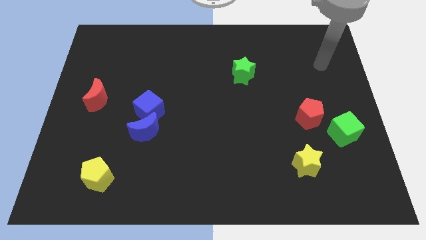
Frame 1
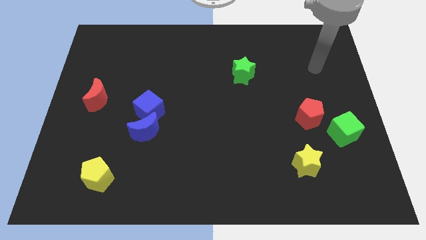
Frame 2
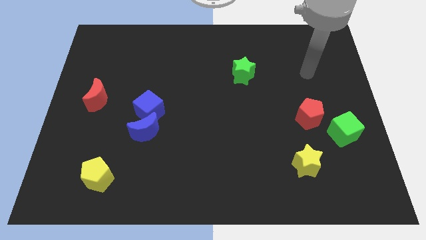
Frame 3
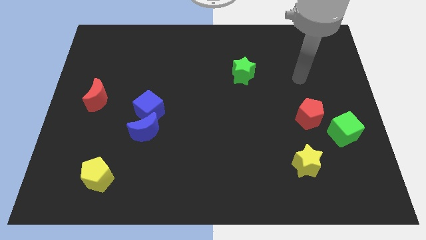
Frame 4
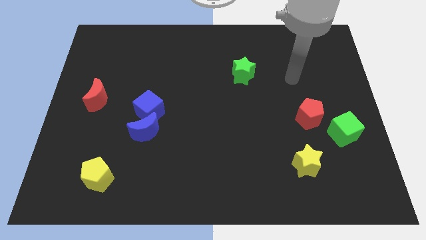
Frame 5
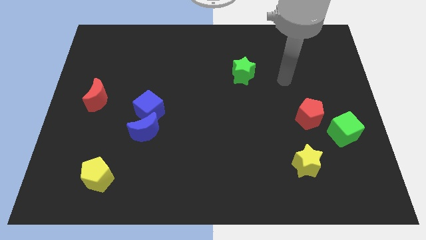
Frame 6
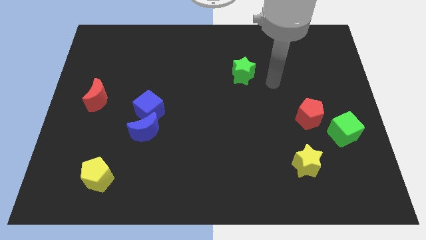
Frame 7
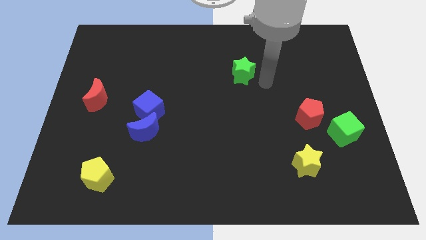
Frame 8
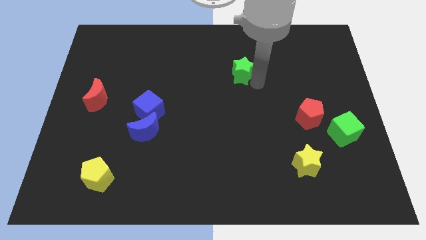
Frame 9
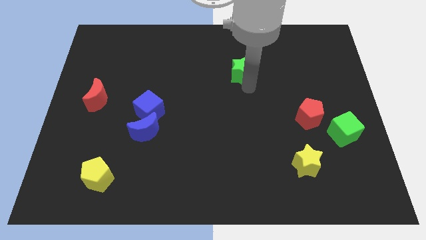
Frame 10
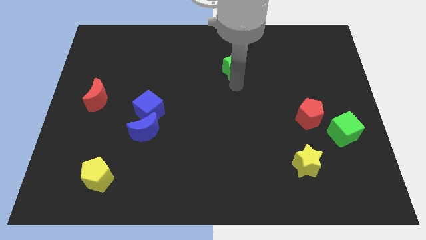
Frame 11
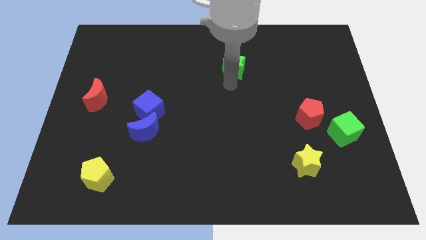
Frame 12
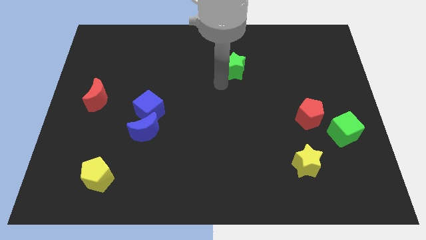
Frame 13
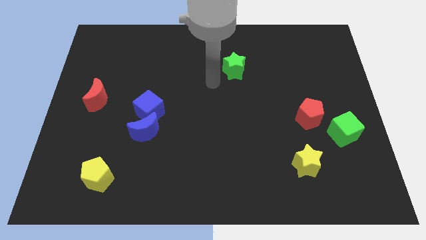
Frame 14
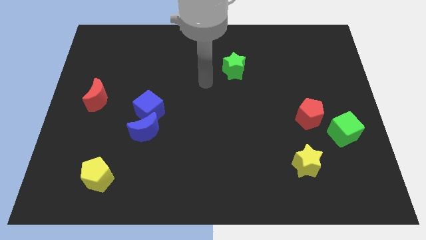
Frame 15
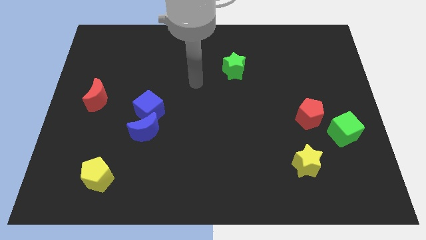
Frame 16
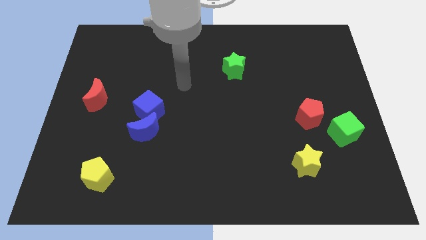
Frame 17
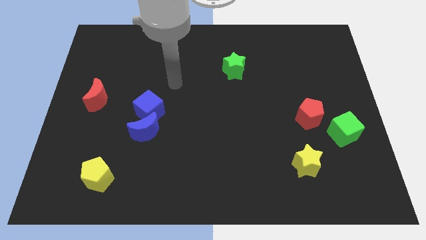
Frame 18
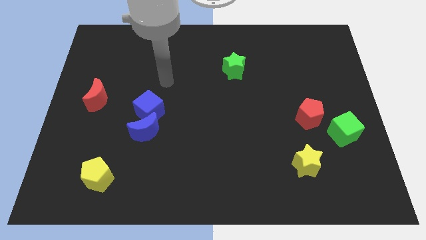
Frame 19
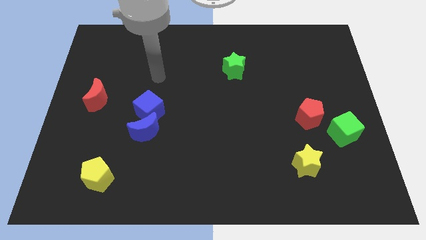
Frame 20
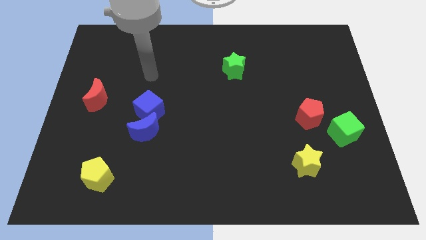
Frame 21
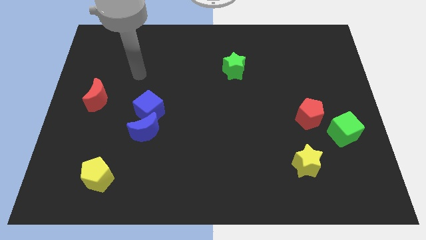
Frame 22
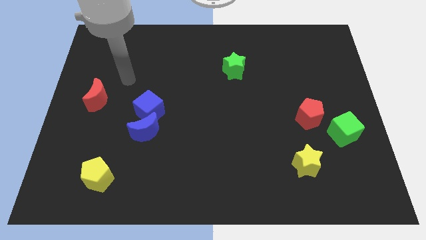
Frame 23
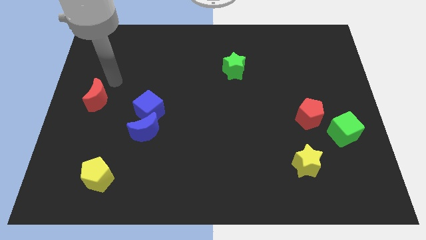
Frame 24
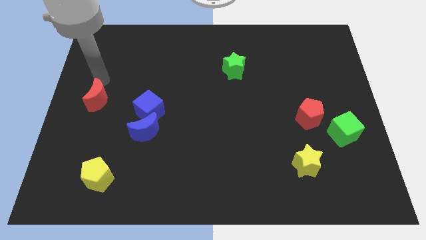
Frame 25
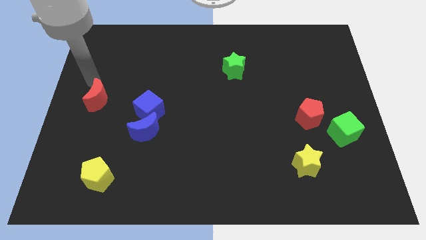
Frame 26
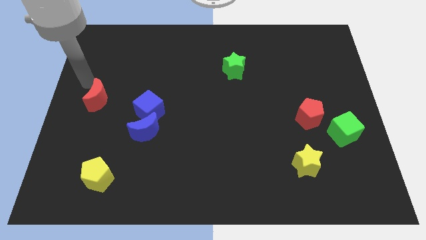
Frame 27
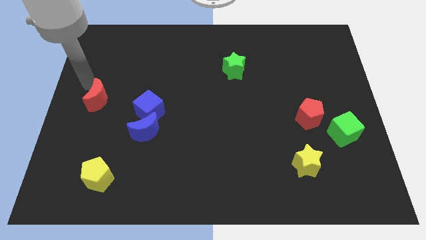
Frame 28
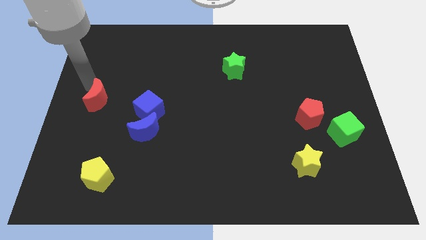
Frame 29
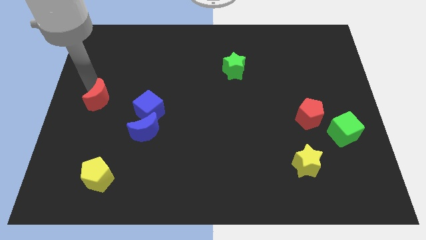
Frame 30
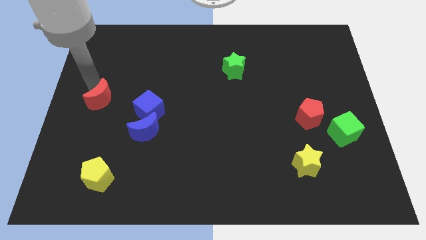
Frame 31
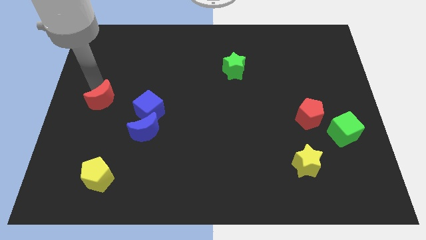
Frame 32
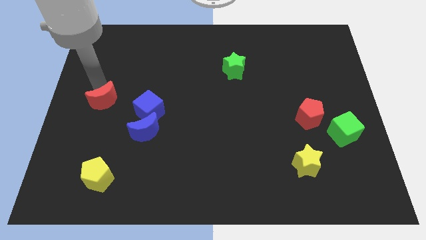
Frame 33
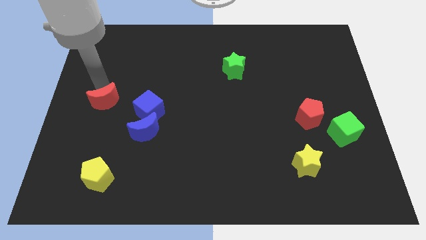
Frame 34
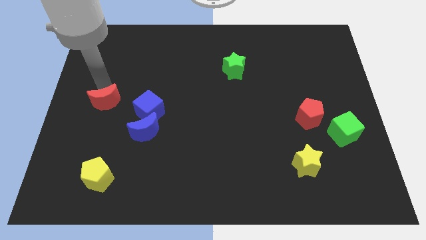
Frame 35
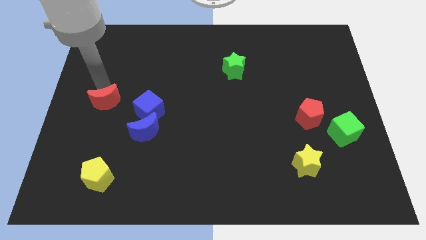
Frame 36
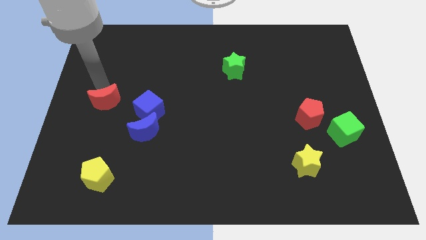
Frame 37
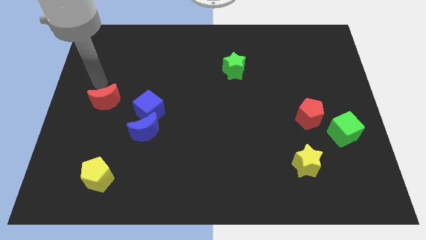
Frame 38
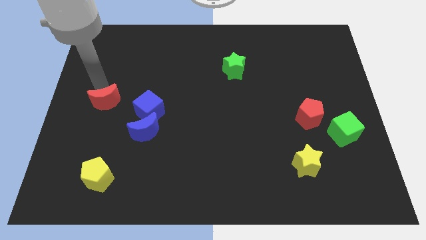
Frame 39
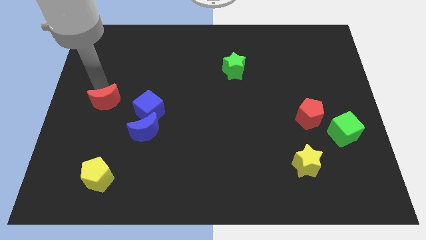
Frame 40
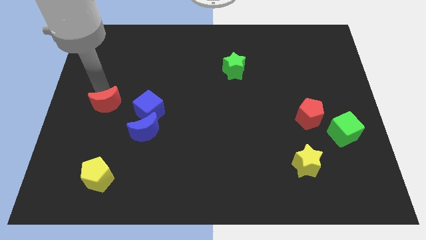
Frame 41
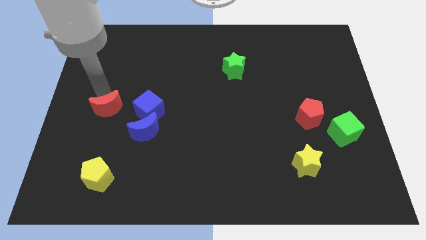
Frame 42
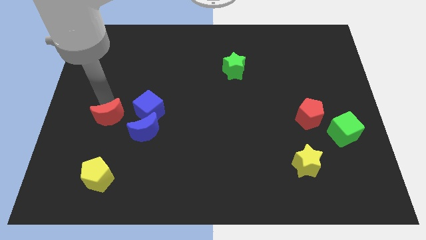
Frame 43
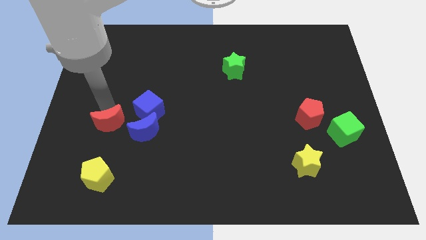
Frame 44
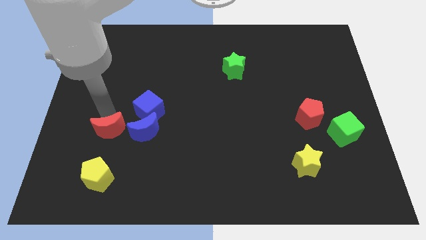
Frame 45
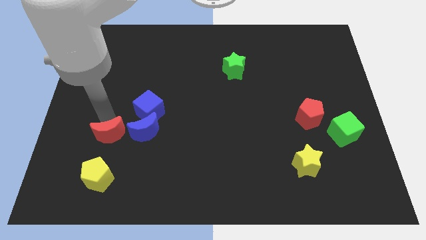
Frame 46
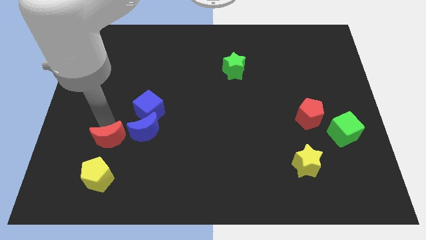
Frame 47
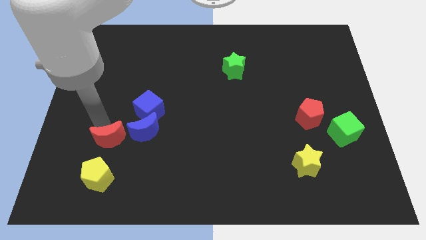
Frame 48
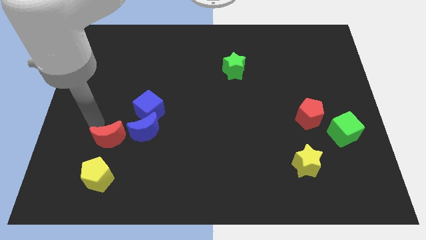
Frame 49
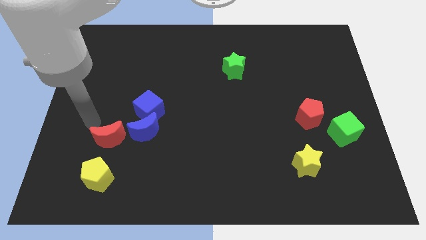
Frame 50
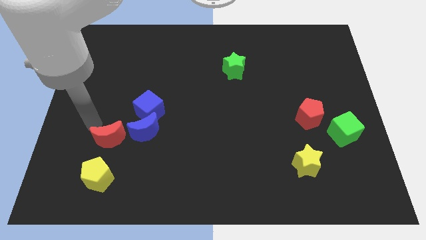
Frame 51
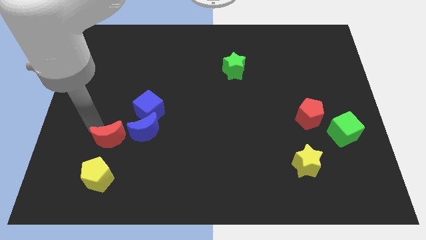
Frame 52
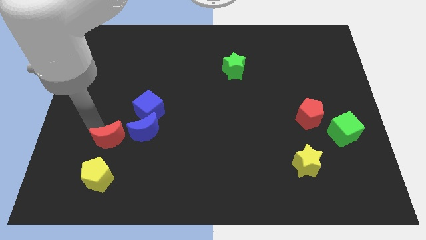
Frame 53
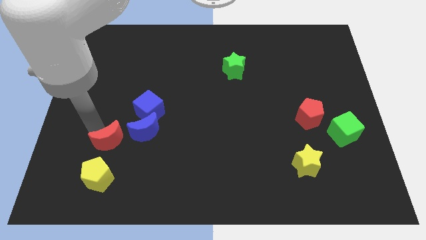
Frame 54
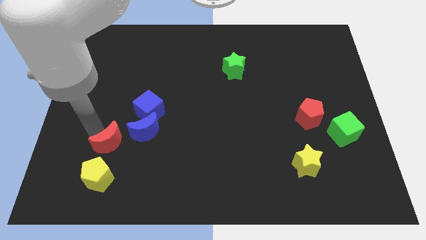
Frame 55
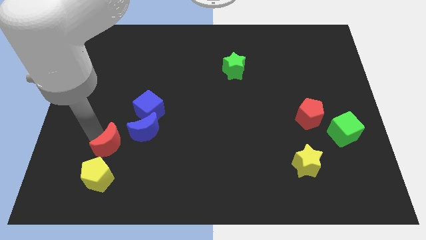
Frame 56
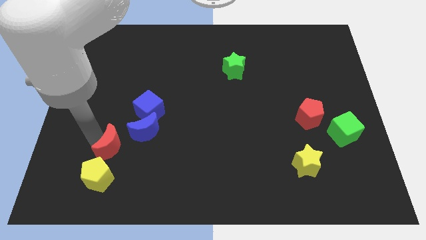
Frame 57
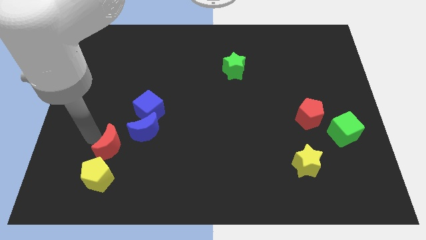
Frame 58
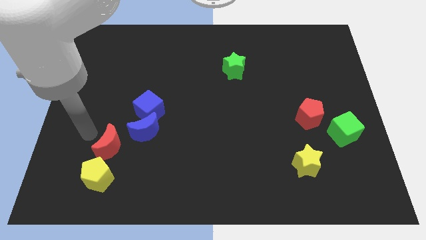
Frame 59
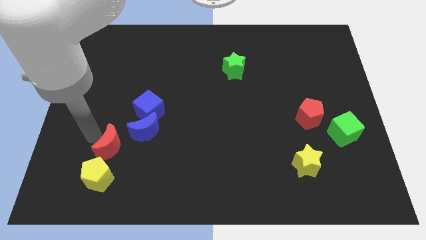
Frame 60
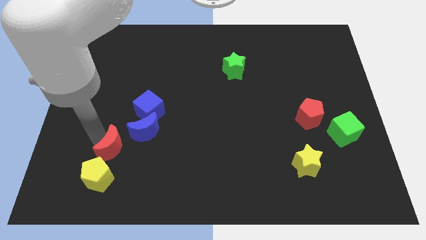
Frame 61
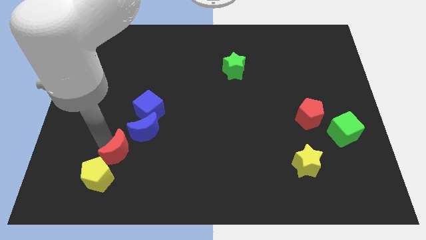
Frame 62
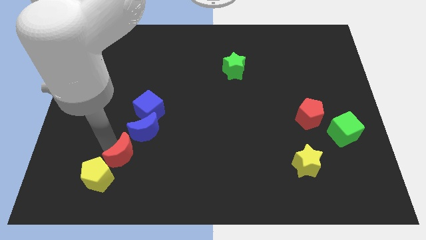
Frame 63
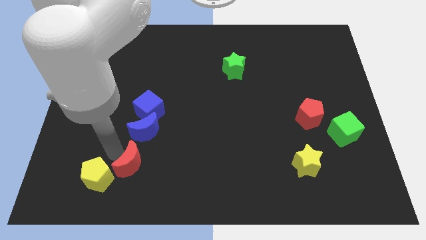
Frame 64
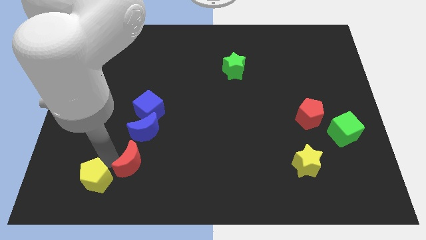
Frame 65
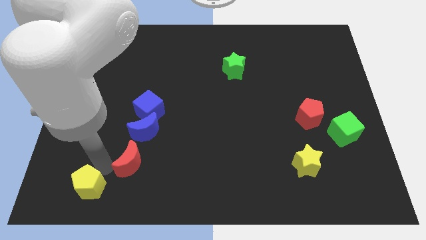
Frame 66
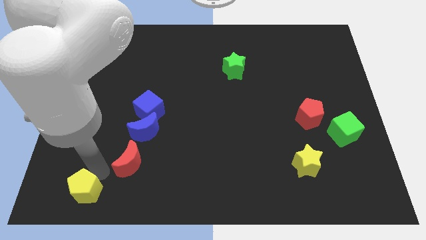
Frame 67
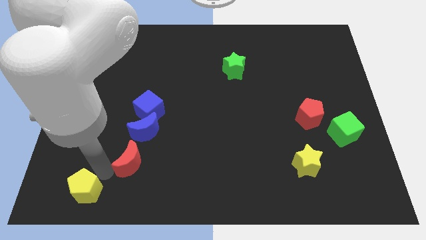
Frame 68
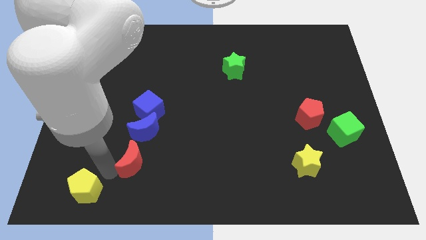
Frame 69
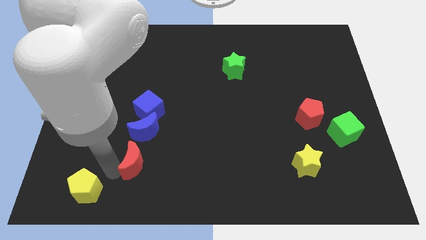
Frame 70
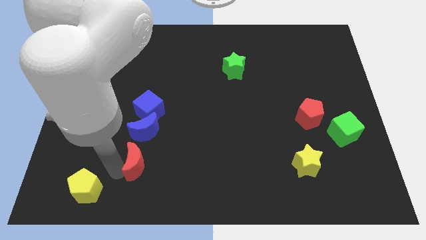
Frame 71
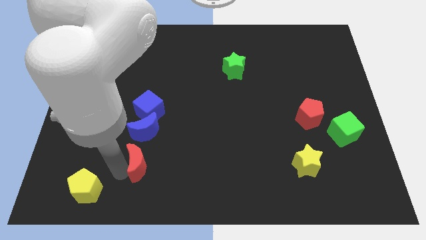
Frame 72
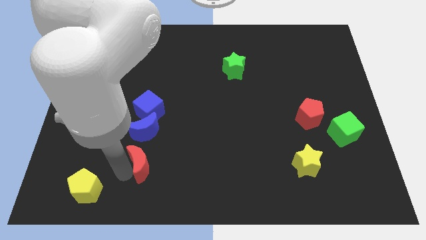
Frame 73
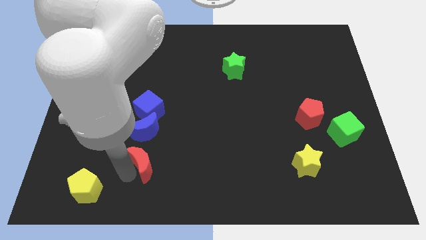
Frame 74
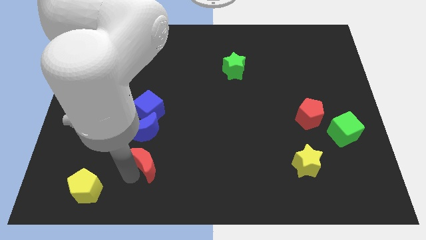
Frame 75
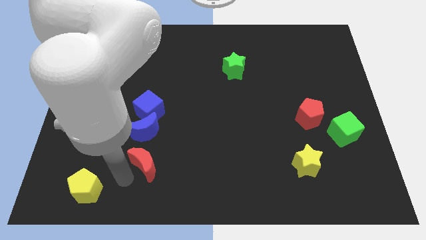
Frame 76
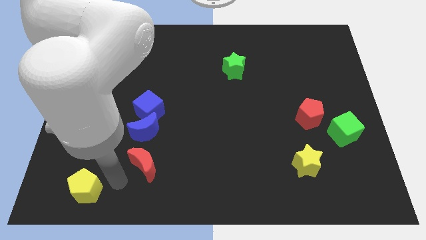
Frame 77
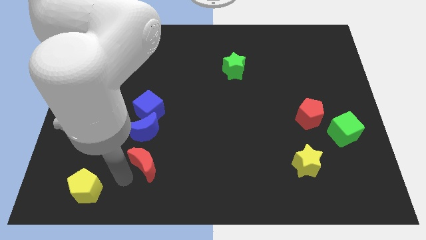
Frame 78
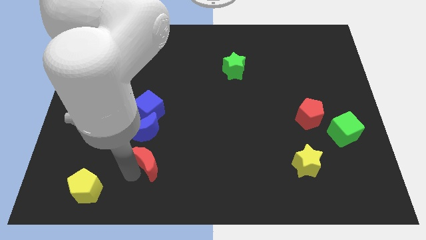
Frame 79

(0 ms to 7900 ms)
slide the red moon diagonally down and to the right of the blue moon

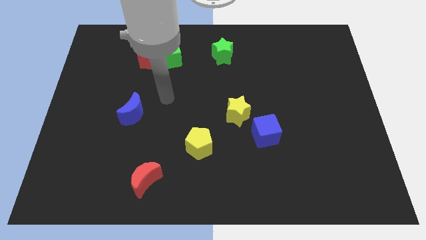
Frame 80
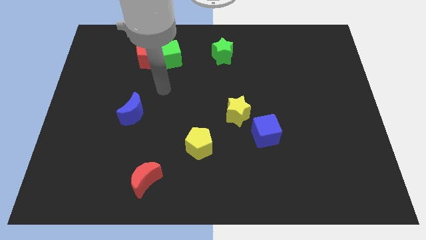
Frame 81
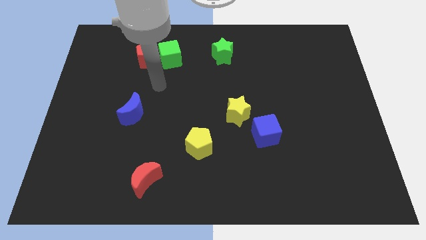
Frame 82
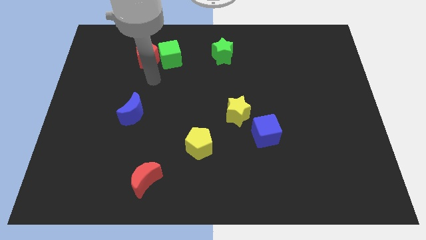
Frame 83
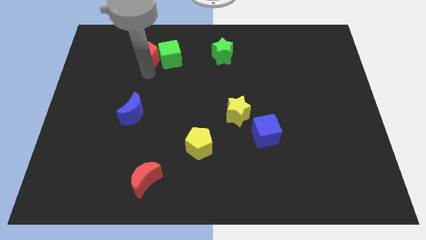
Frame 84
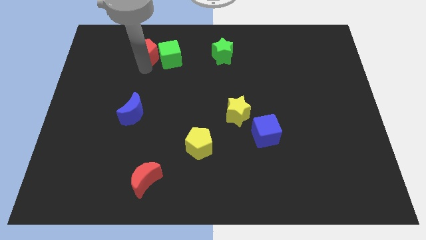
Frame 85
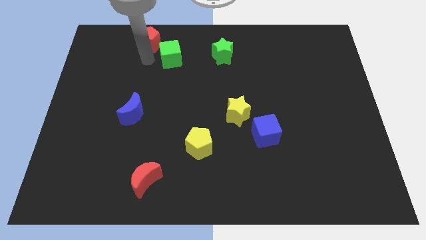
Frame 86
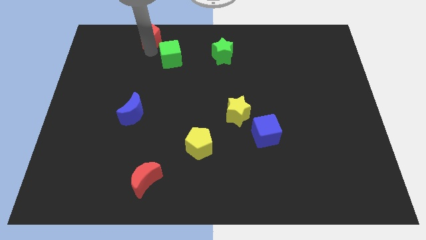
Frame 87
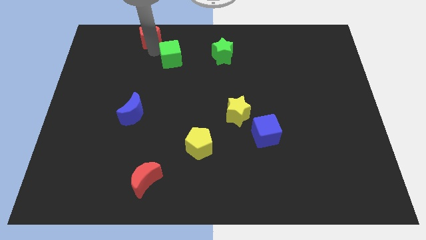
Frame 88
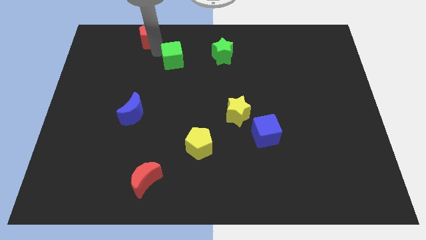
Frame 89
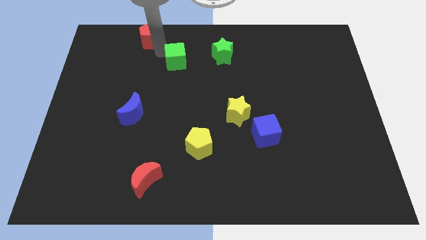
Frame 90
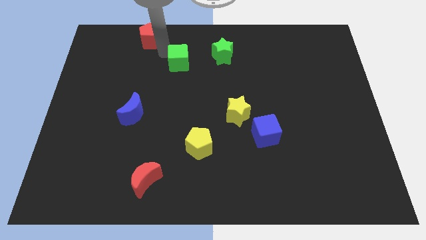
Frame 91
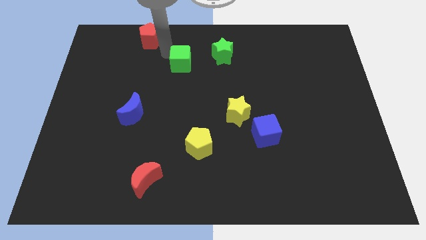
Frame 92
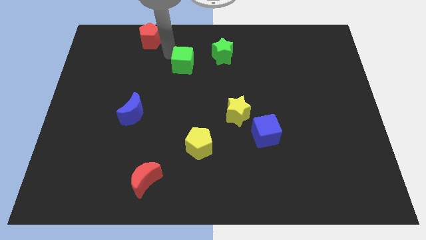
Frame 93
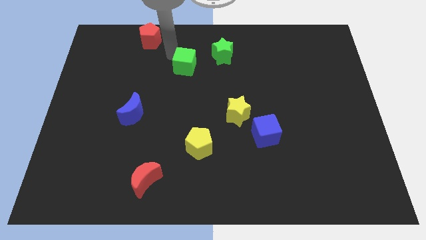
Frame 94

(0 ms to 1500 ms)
put the green cube to the bottom left of the green star
